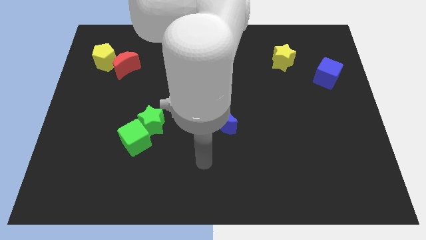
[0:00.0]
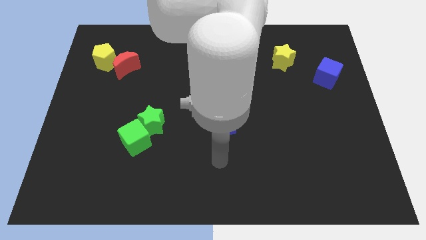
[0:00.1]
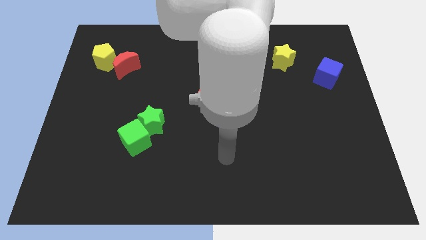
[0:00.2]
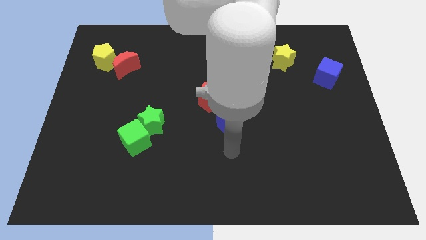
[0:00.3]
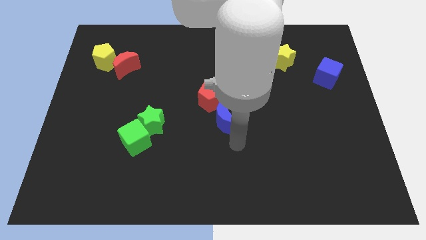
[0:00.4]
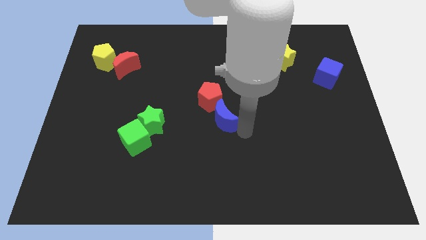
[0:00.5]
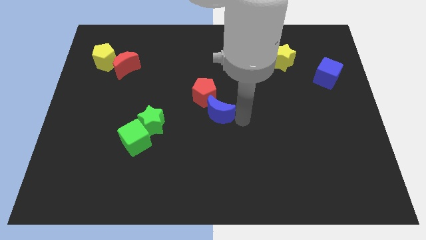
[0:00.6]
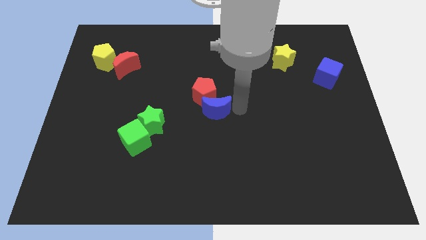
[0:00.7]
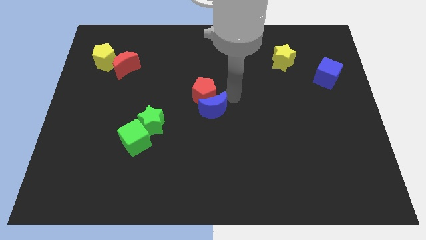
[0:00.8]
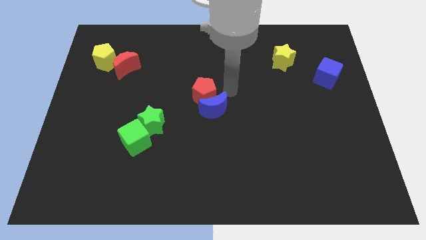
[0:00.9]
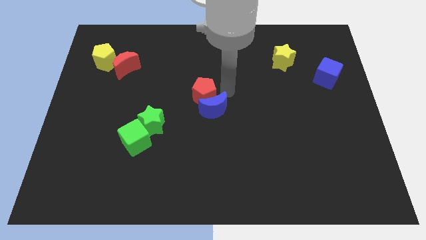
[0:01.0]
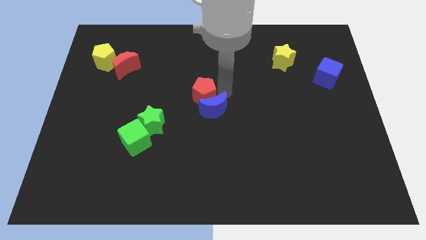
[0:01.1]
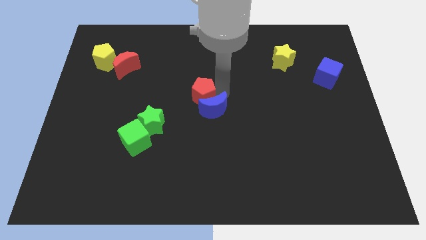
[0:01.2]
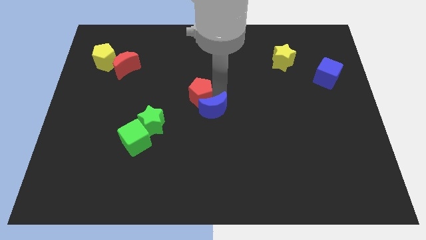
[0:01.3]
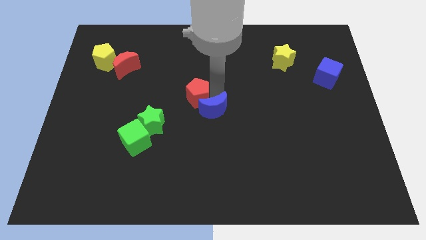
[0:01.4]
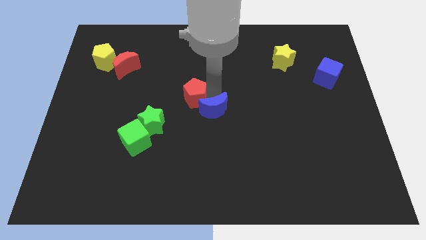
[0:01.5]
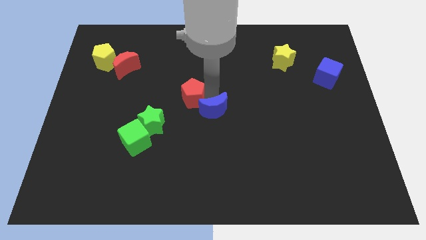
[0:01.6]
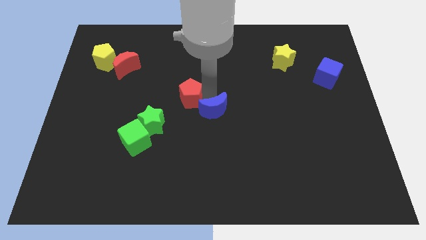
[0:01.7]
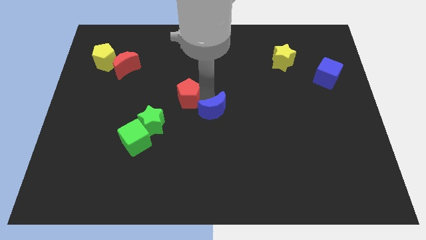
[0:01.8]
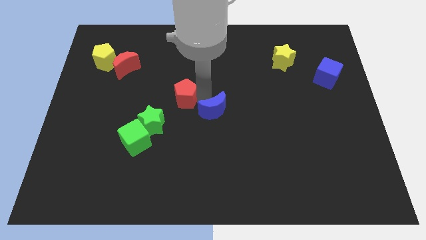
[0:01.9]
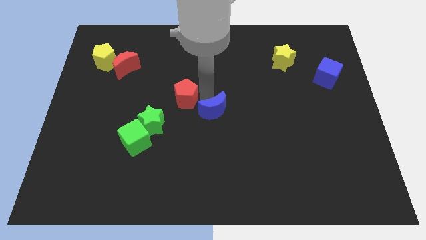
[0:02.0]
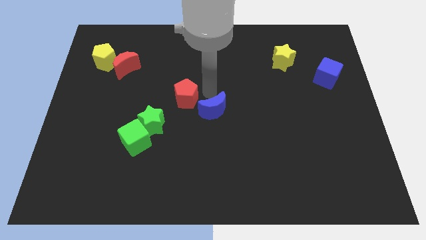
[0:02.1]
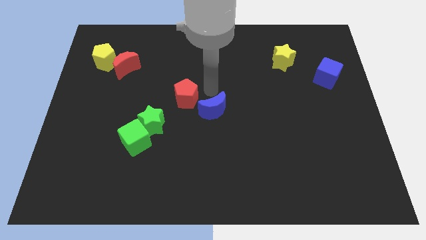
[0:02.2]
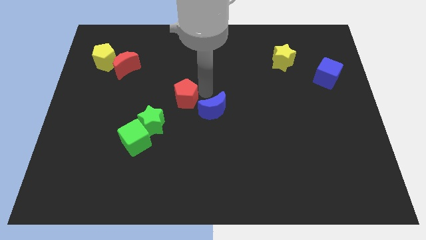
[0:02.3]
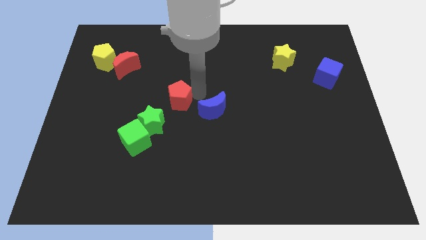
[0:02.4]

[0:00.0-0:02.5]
slightly push the red pentagon to the left

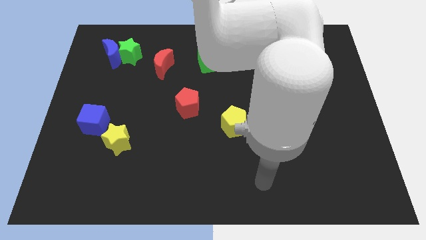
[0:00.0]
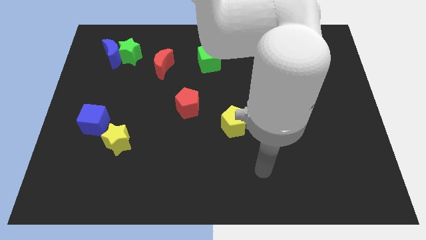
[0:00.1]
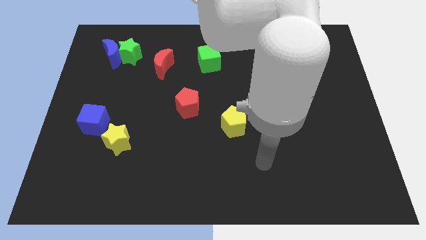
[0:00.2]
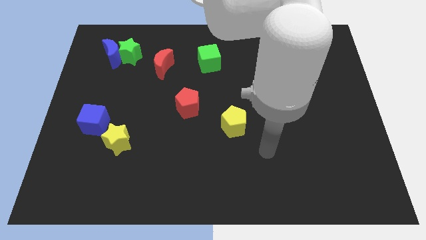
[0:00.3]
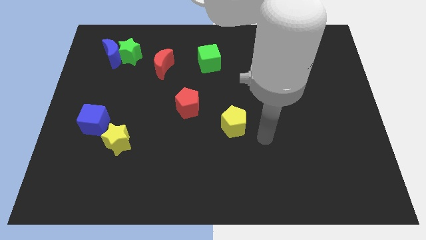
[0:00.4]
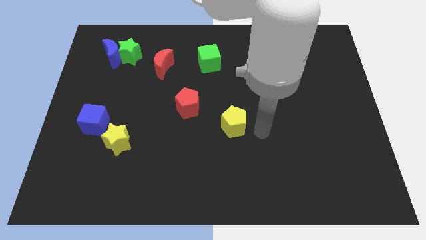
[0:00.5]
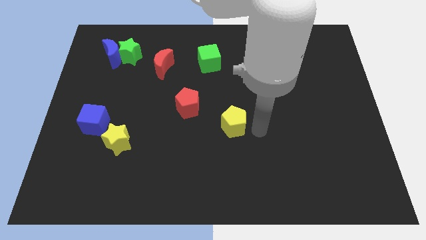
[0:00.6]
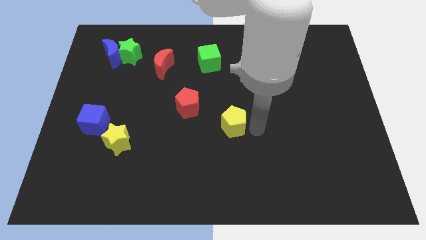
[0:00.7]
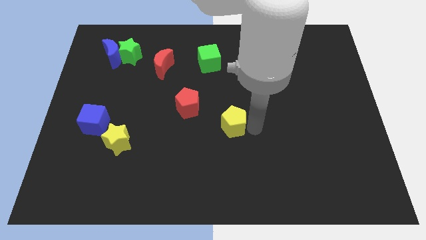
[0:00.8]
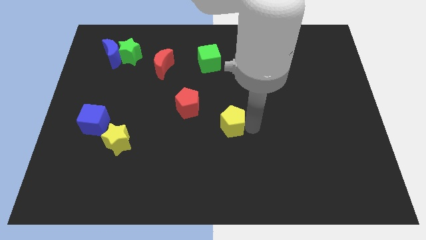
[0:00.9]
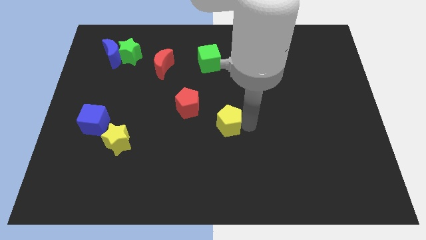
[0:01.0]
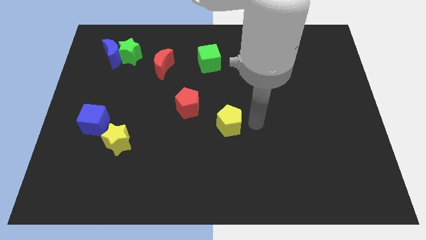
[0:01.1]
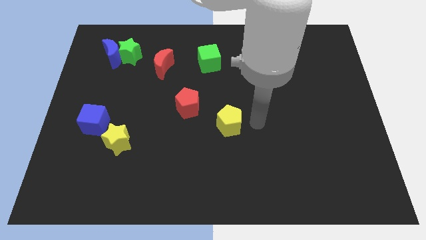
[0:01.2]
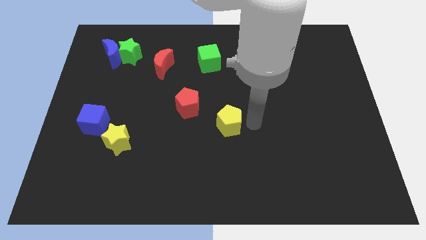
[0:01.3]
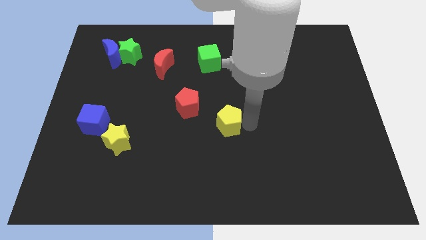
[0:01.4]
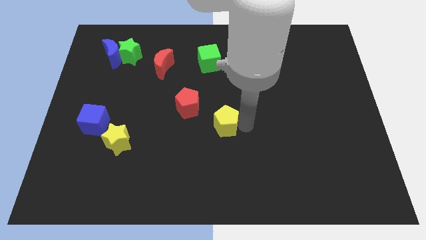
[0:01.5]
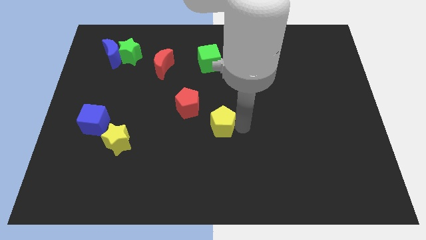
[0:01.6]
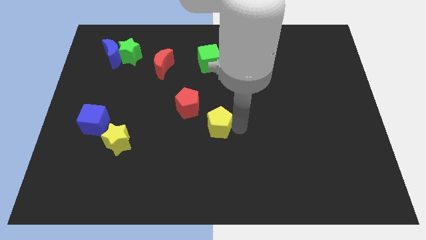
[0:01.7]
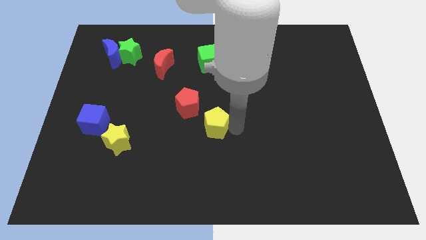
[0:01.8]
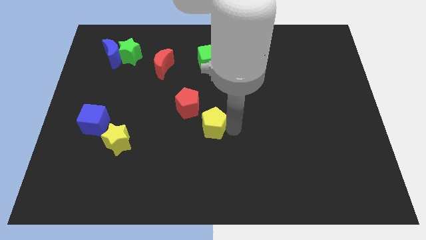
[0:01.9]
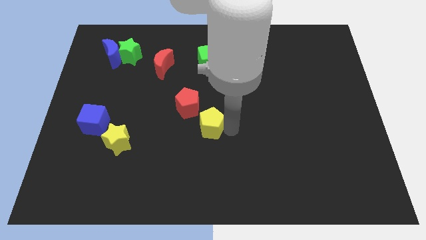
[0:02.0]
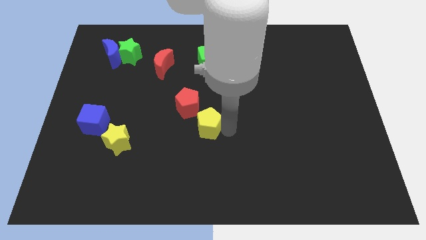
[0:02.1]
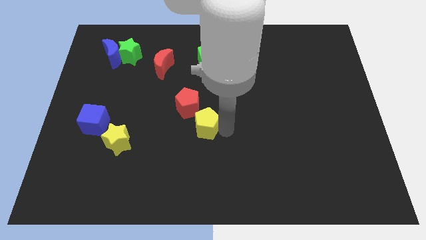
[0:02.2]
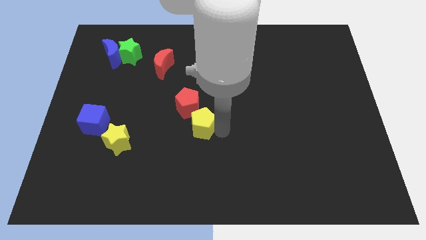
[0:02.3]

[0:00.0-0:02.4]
slide the yellow pentagon left somewhat

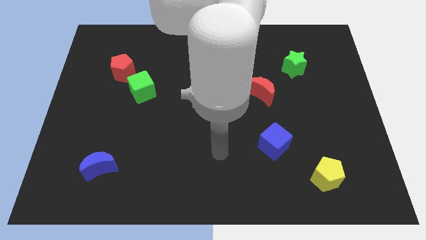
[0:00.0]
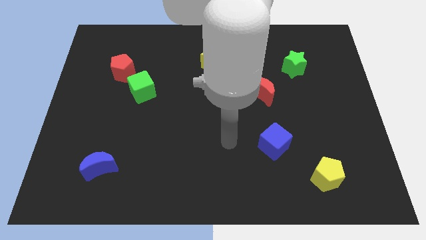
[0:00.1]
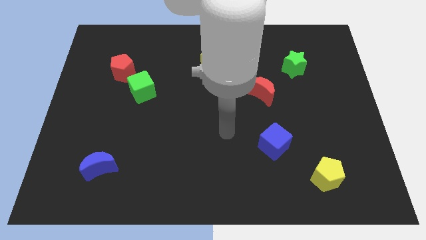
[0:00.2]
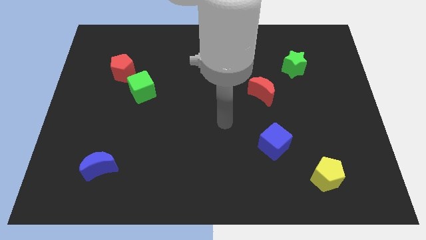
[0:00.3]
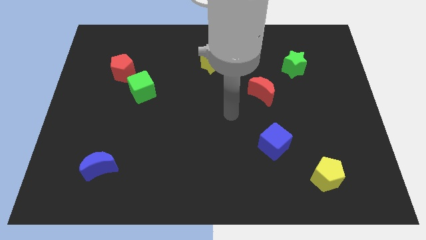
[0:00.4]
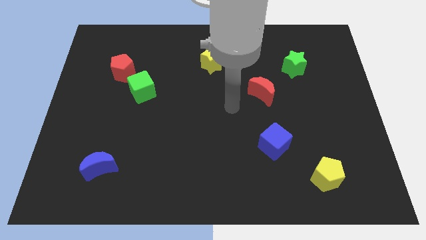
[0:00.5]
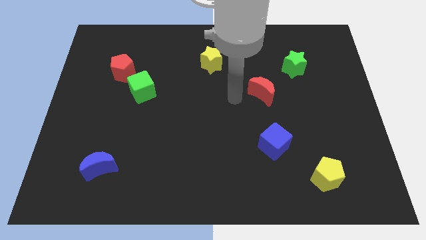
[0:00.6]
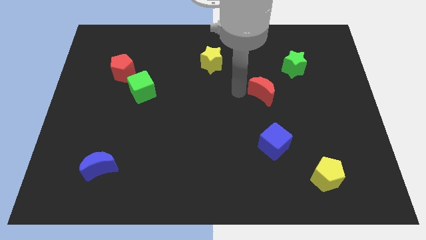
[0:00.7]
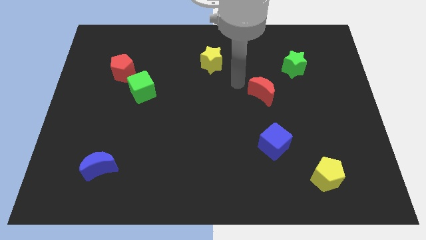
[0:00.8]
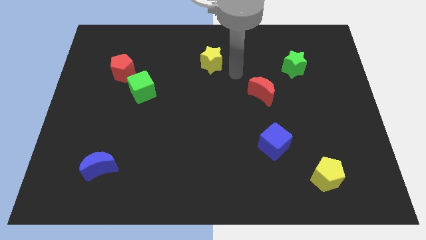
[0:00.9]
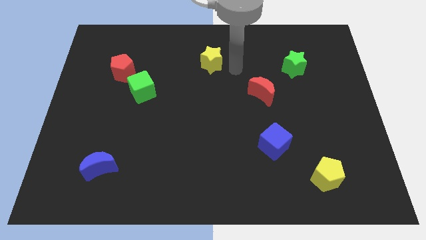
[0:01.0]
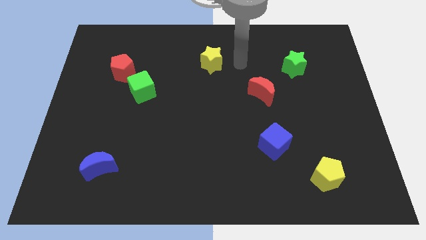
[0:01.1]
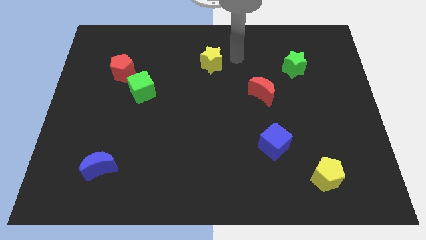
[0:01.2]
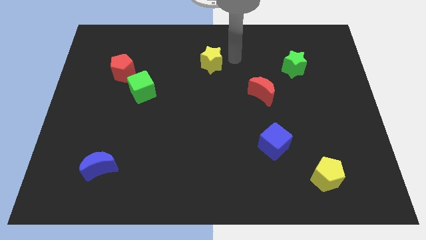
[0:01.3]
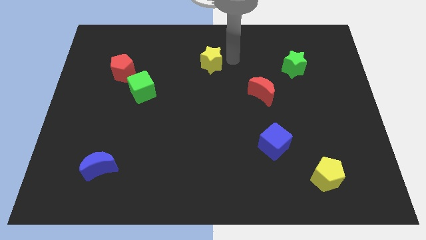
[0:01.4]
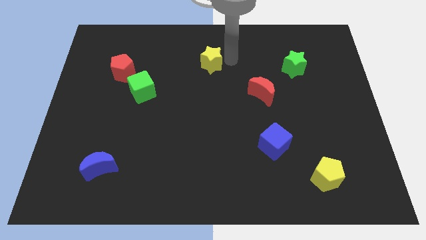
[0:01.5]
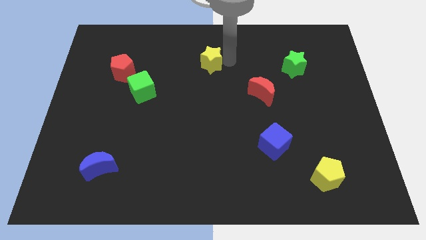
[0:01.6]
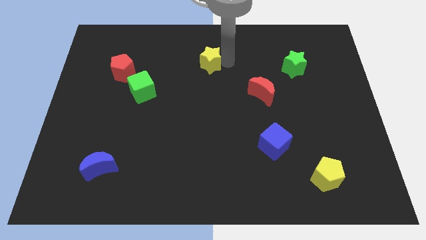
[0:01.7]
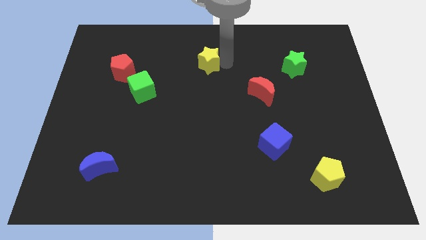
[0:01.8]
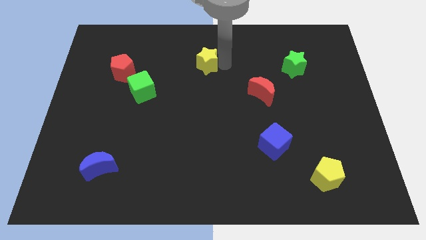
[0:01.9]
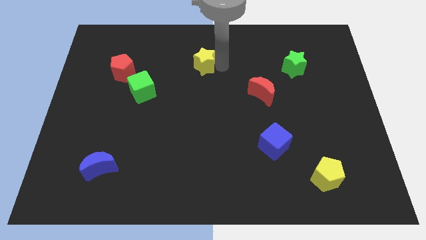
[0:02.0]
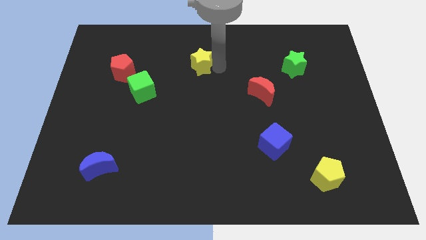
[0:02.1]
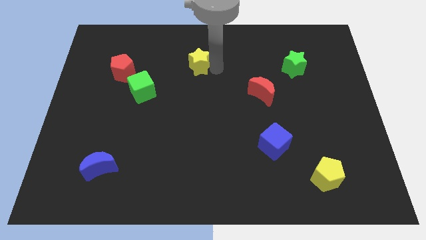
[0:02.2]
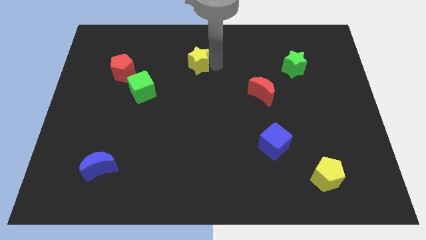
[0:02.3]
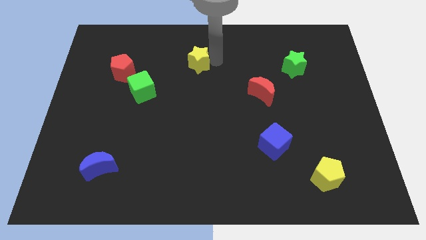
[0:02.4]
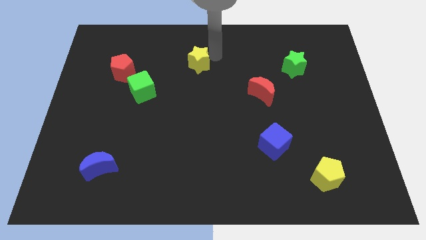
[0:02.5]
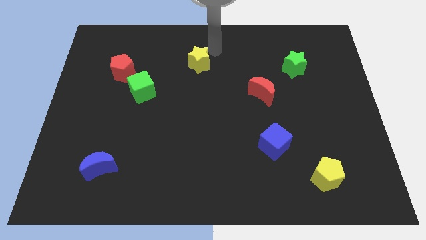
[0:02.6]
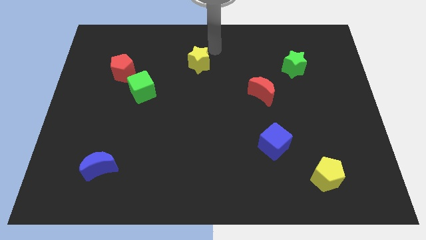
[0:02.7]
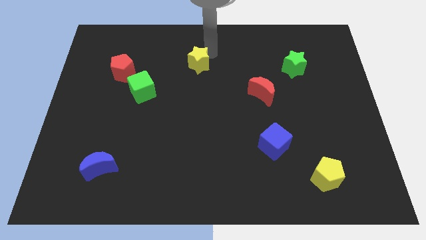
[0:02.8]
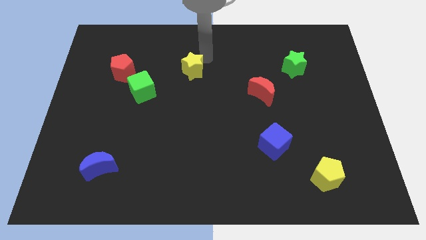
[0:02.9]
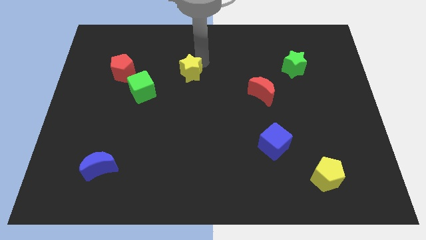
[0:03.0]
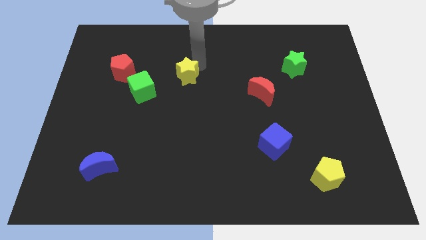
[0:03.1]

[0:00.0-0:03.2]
slightly move the yellow star downwards and to the left
